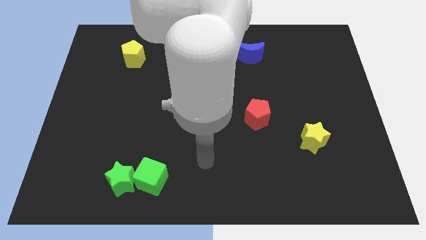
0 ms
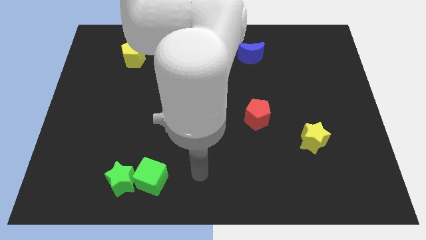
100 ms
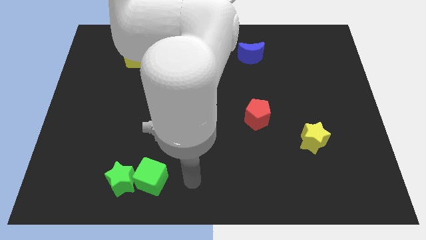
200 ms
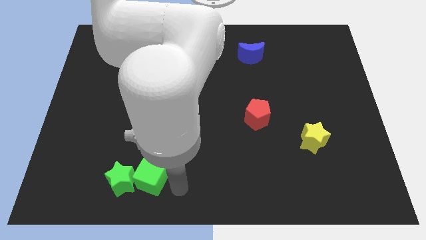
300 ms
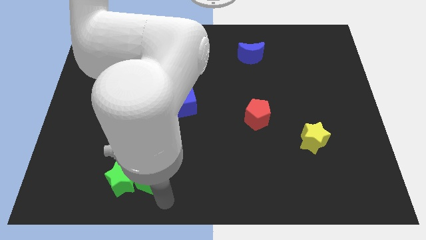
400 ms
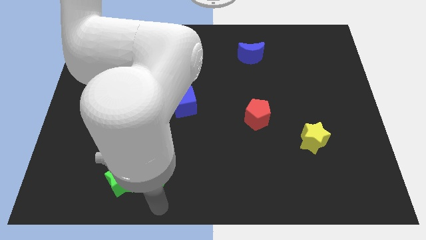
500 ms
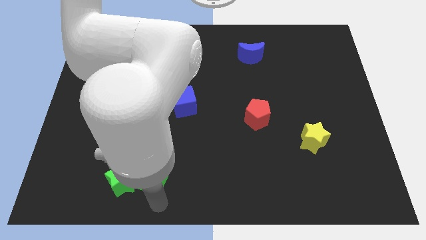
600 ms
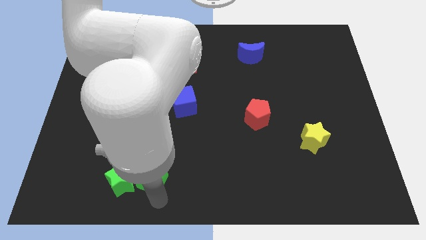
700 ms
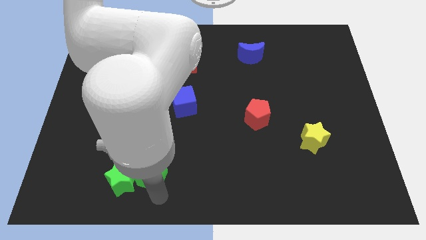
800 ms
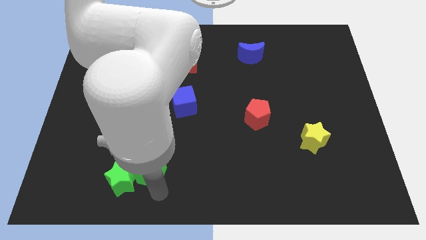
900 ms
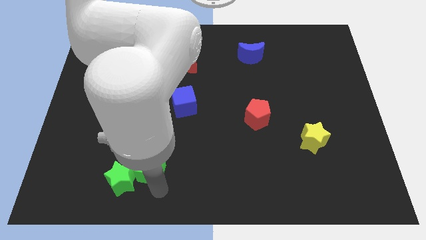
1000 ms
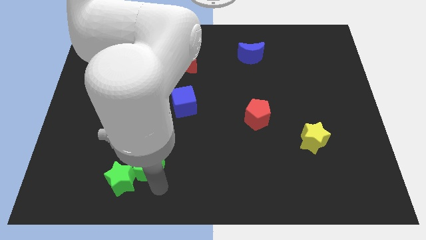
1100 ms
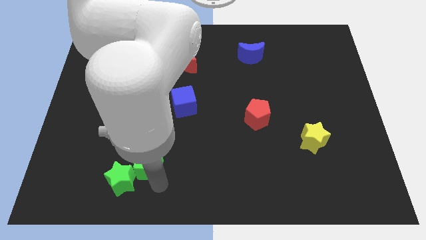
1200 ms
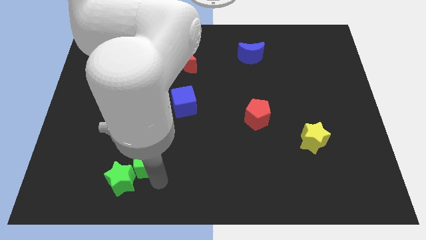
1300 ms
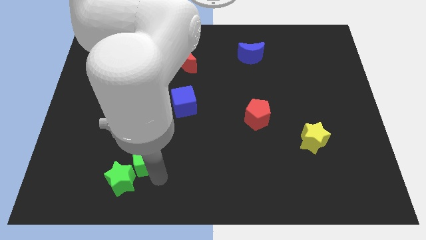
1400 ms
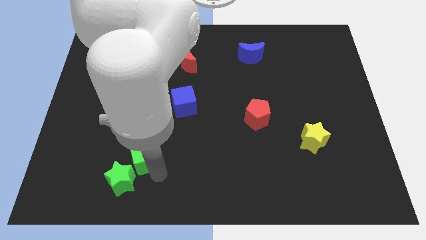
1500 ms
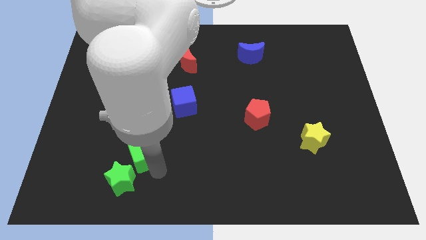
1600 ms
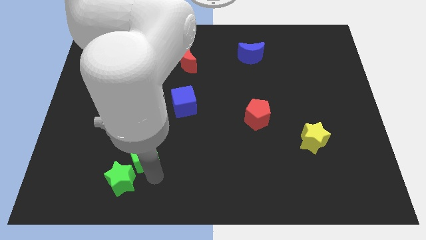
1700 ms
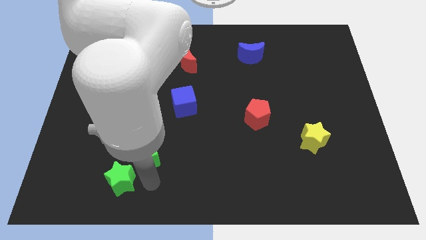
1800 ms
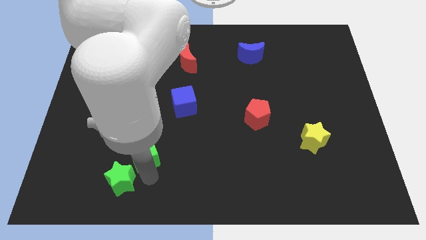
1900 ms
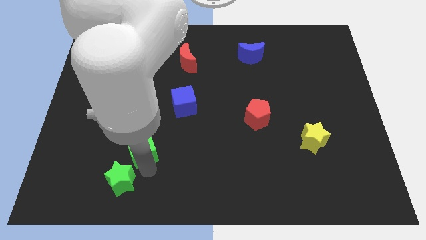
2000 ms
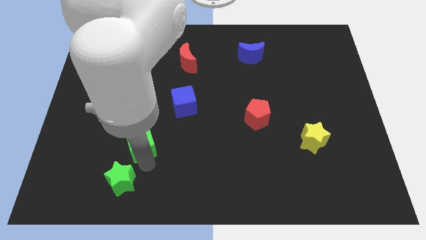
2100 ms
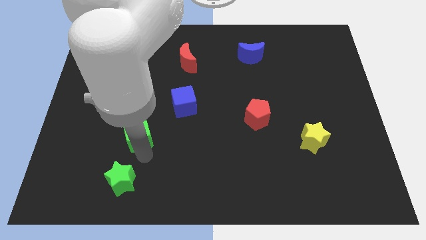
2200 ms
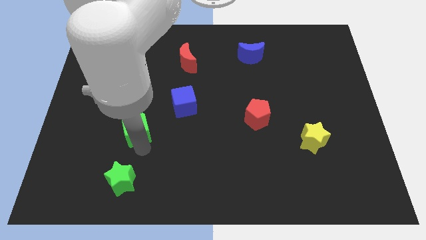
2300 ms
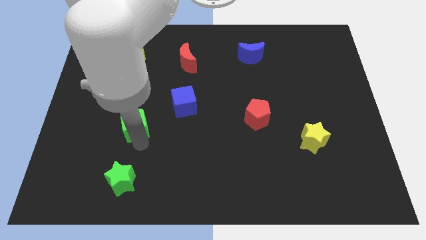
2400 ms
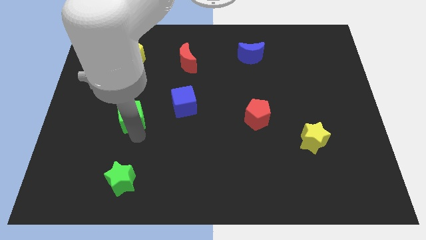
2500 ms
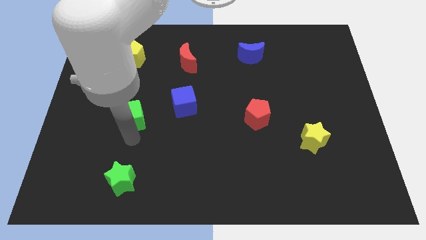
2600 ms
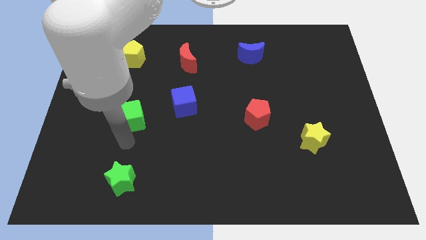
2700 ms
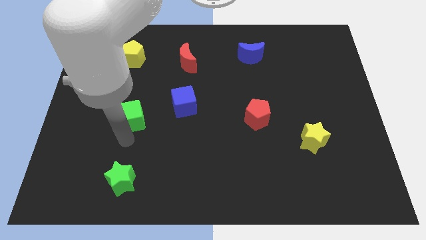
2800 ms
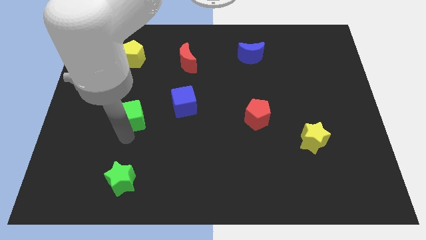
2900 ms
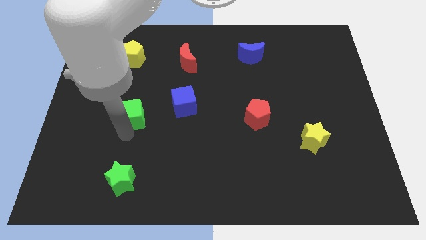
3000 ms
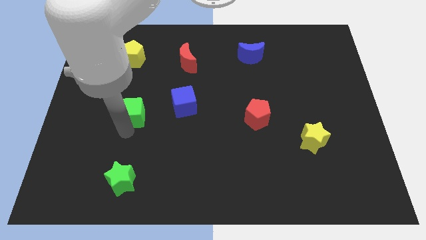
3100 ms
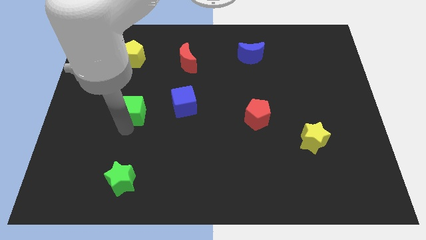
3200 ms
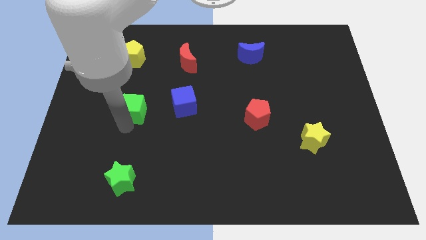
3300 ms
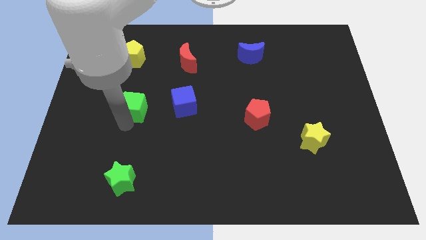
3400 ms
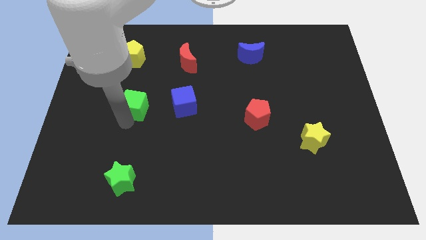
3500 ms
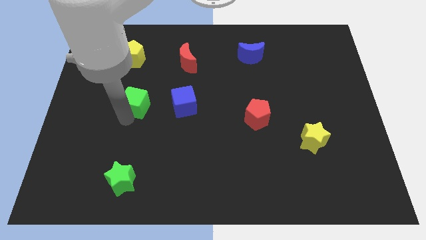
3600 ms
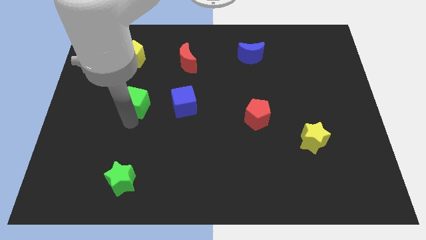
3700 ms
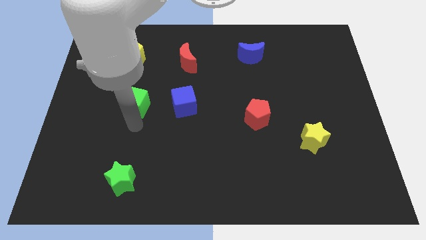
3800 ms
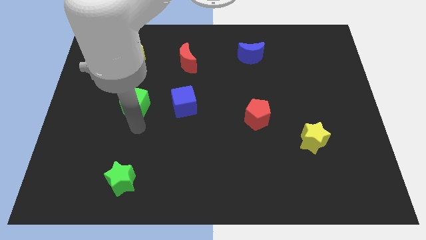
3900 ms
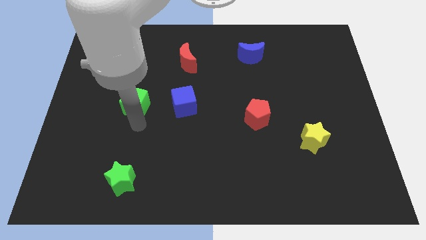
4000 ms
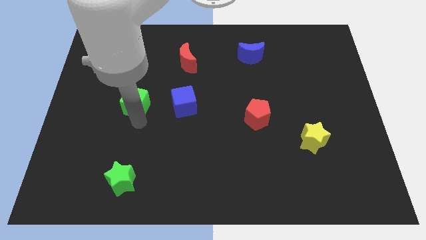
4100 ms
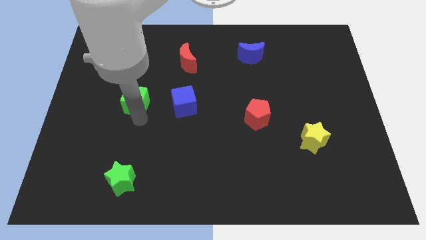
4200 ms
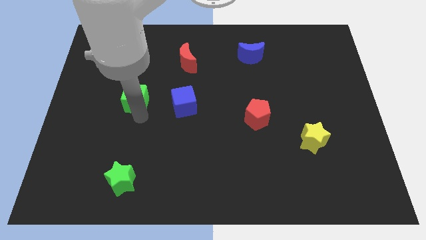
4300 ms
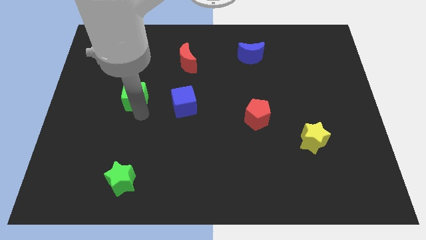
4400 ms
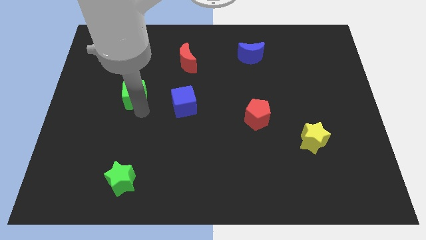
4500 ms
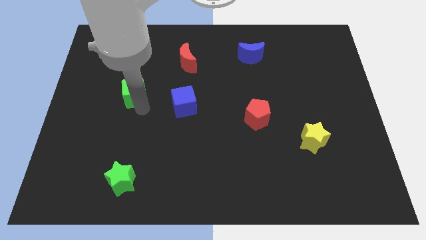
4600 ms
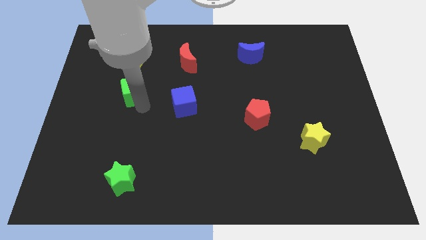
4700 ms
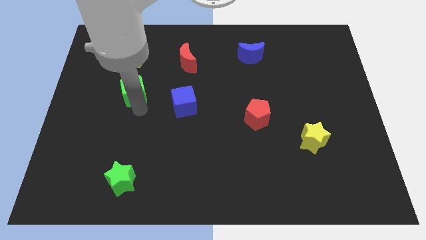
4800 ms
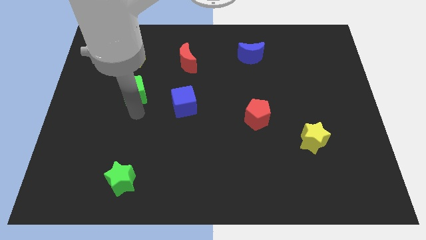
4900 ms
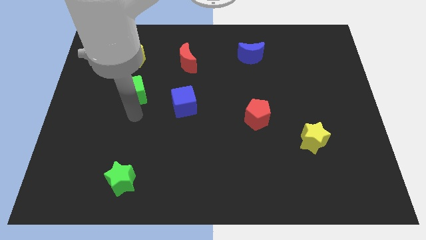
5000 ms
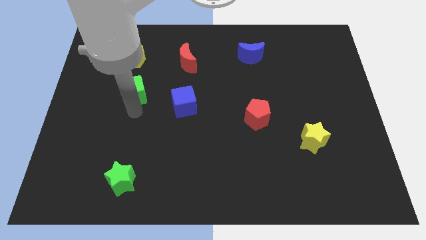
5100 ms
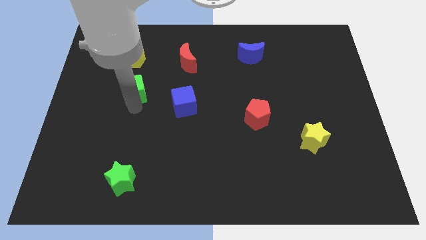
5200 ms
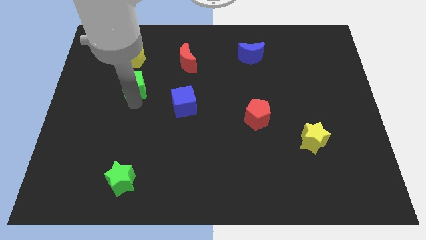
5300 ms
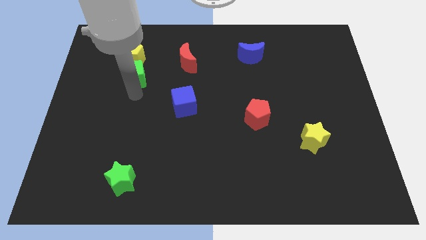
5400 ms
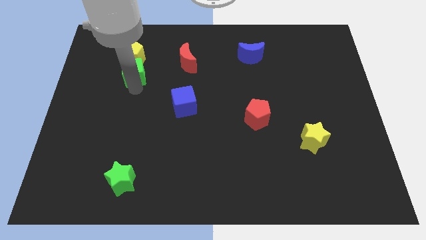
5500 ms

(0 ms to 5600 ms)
put the green cube to the yellow pentagon
